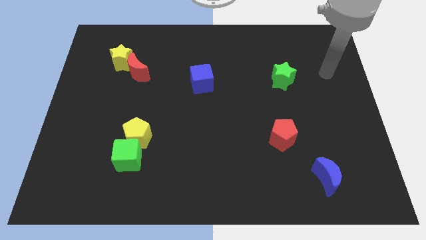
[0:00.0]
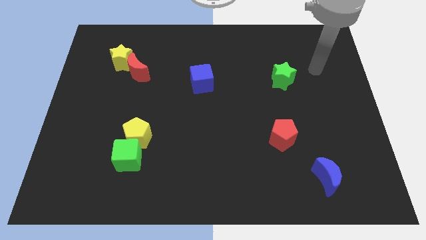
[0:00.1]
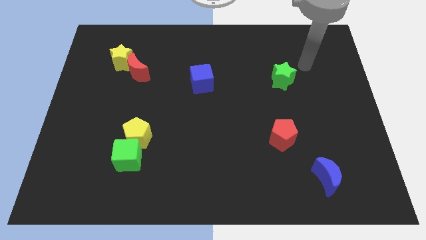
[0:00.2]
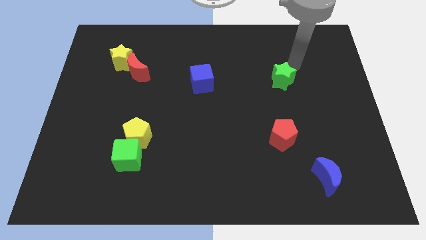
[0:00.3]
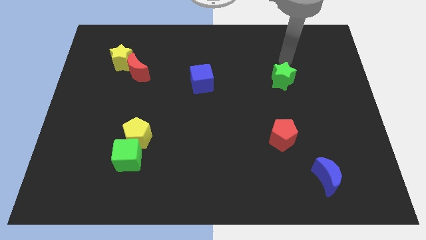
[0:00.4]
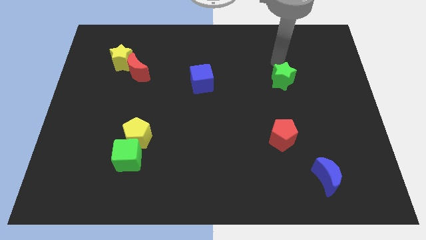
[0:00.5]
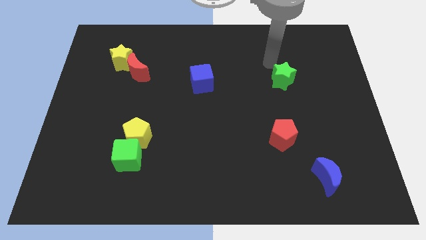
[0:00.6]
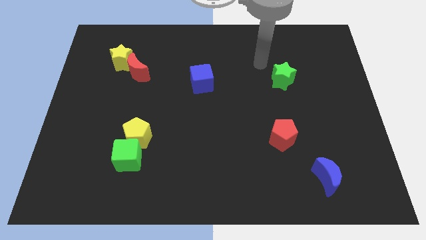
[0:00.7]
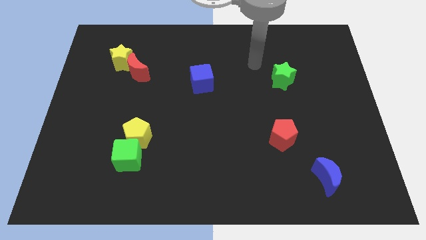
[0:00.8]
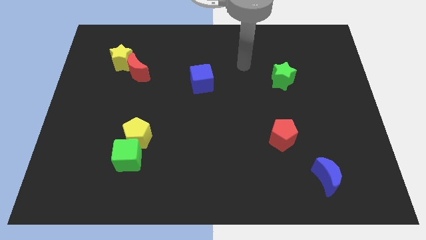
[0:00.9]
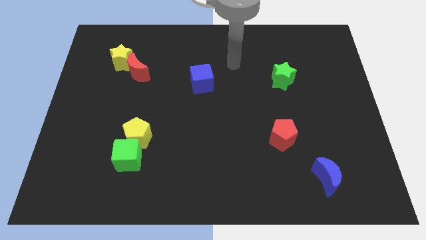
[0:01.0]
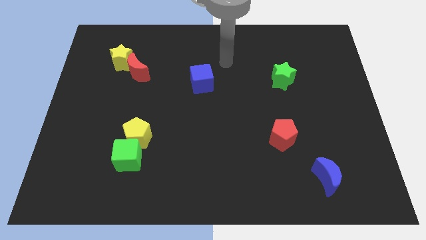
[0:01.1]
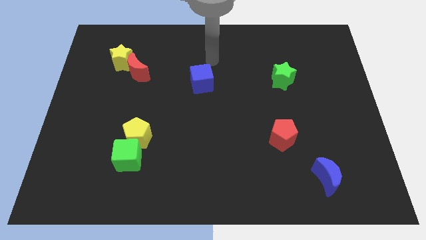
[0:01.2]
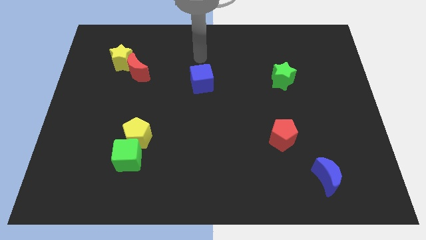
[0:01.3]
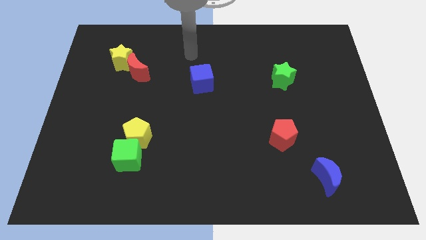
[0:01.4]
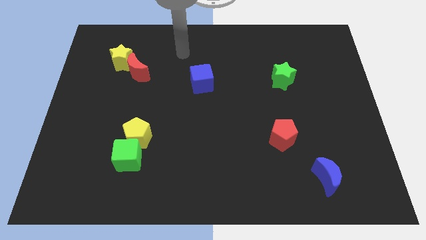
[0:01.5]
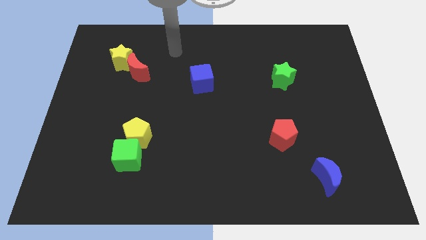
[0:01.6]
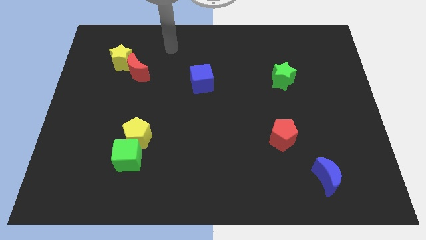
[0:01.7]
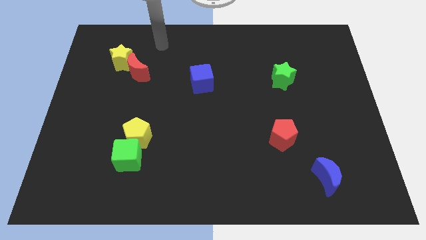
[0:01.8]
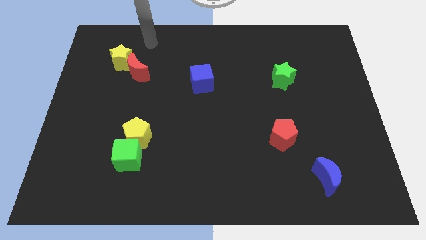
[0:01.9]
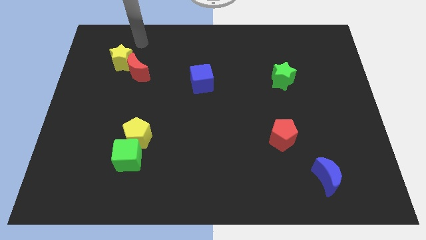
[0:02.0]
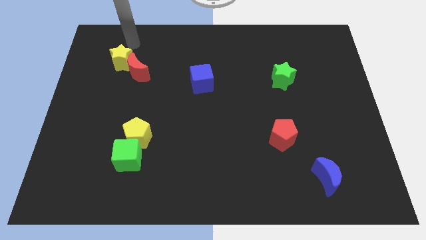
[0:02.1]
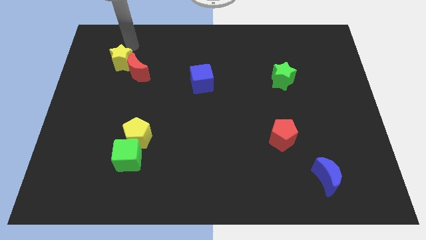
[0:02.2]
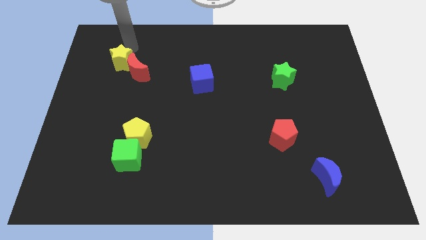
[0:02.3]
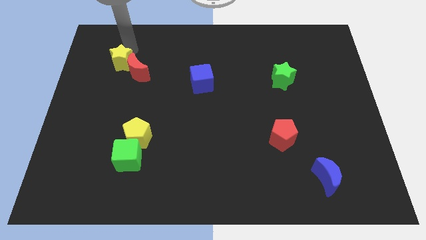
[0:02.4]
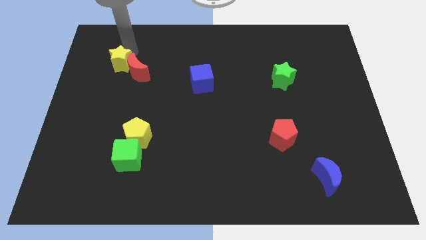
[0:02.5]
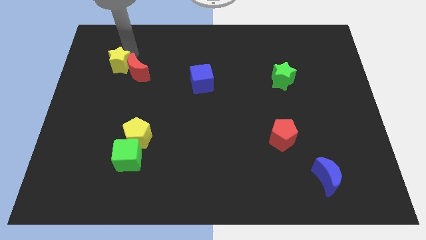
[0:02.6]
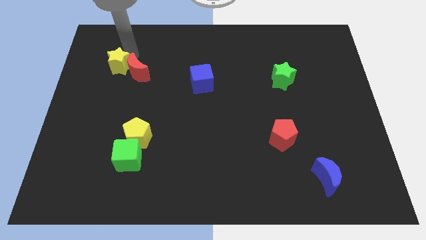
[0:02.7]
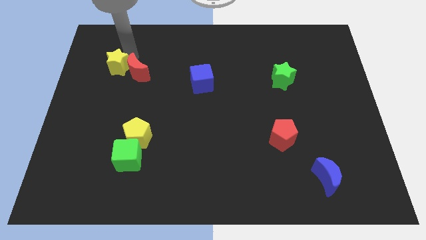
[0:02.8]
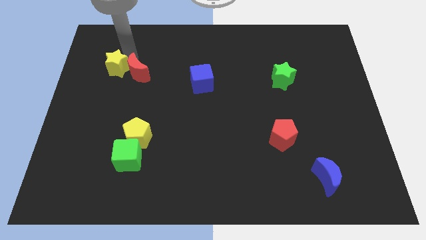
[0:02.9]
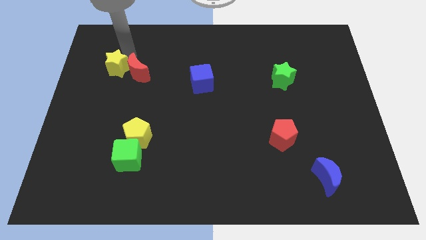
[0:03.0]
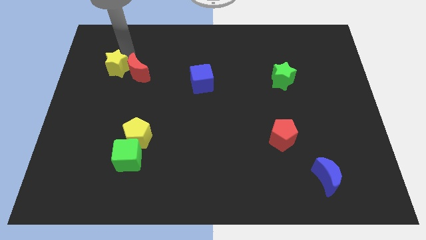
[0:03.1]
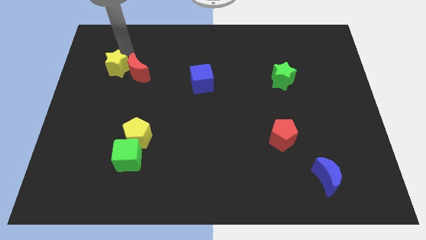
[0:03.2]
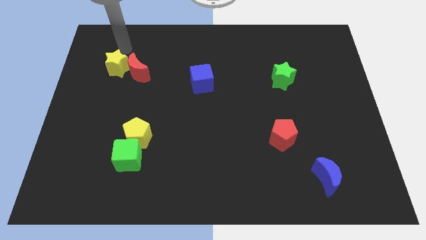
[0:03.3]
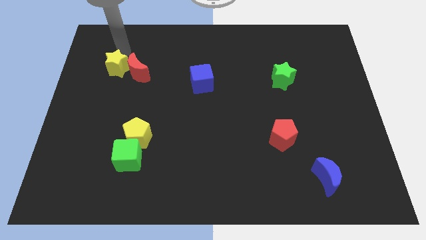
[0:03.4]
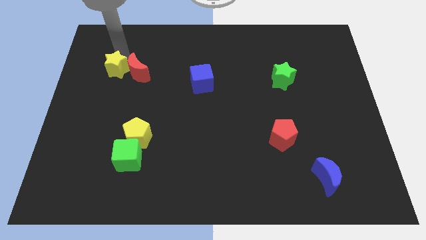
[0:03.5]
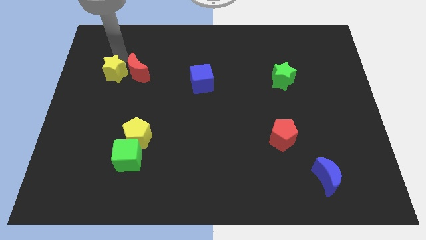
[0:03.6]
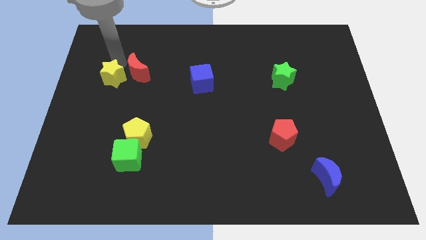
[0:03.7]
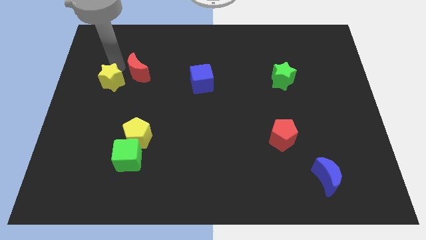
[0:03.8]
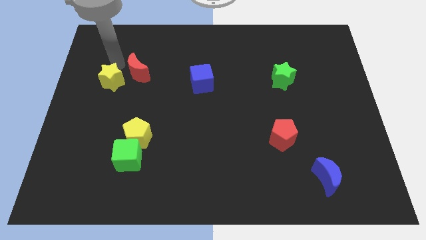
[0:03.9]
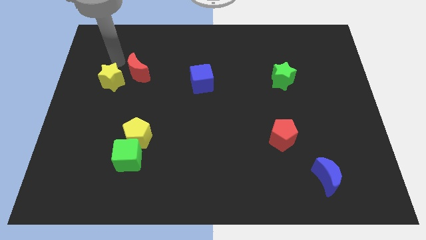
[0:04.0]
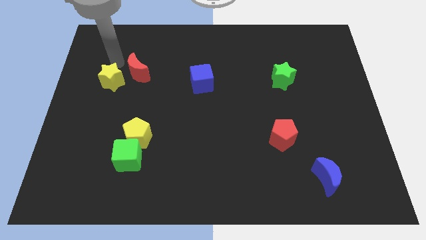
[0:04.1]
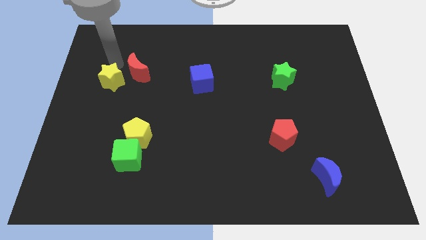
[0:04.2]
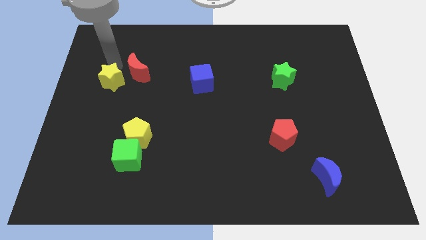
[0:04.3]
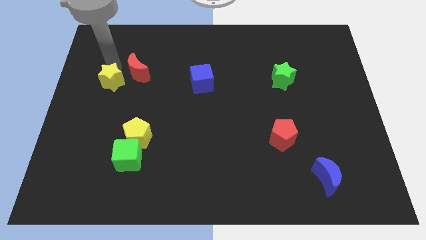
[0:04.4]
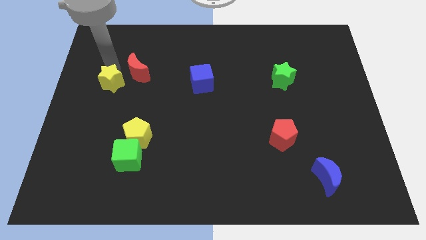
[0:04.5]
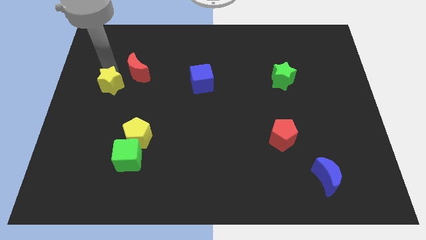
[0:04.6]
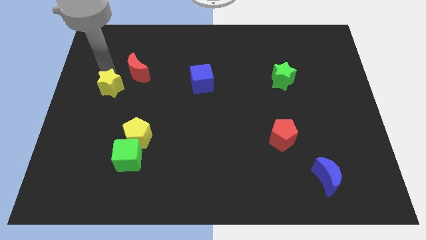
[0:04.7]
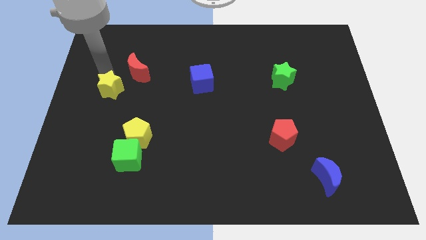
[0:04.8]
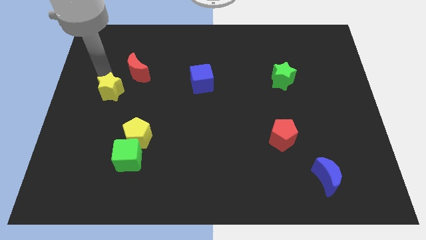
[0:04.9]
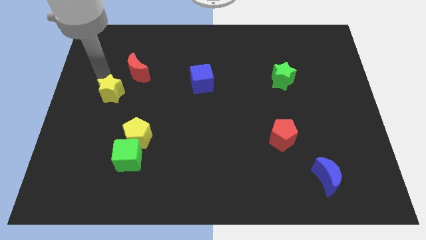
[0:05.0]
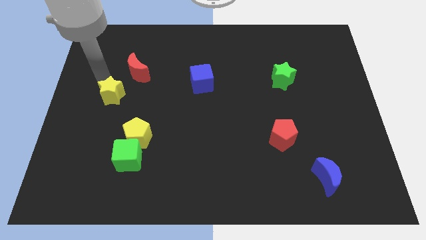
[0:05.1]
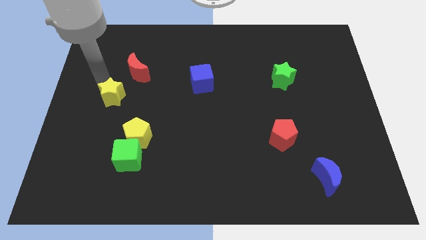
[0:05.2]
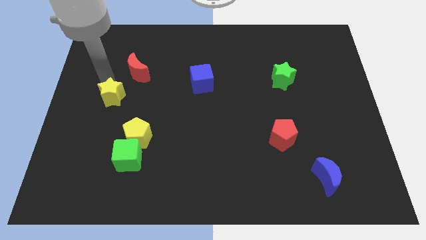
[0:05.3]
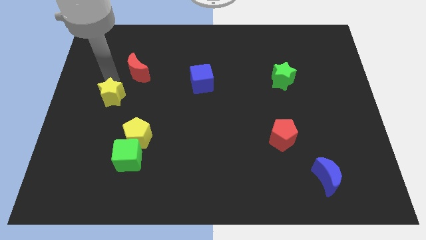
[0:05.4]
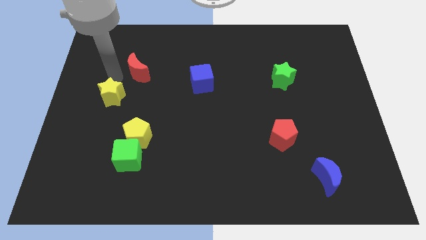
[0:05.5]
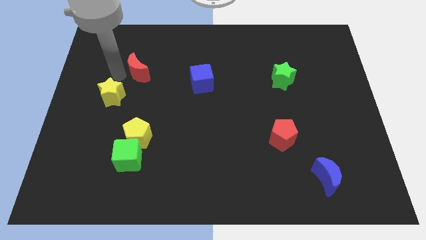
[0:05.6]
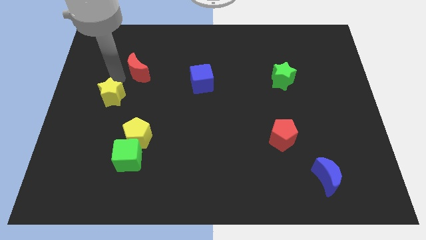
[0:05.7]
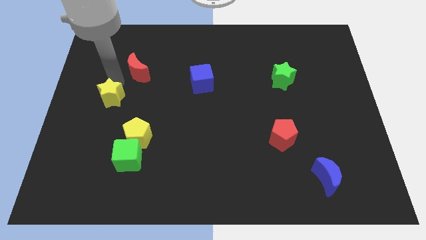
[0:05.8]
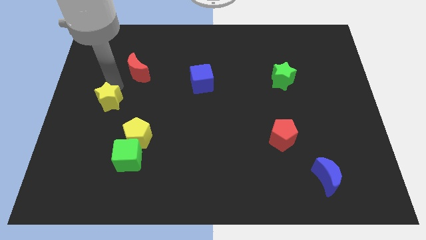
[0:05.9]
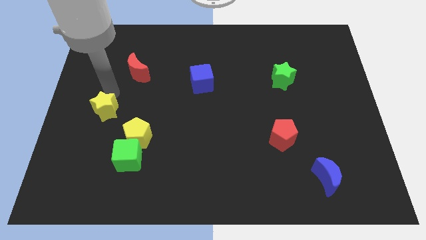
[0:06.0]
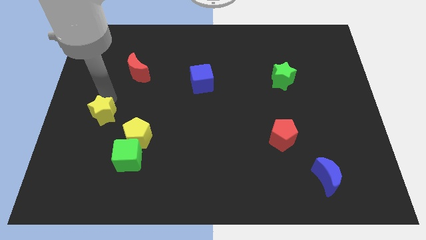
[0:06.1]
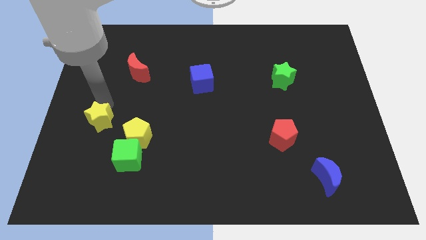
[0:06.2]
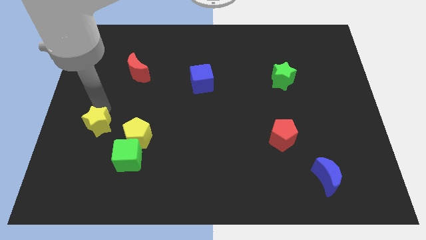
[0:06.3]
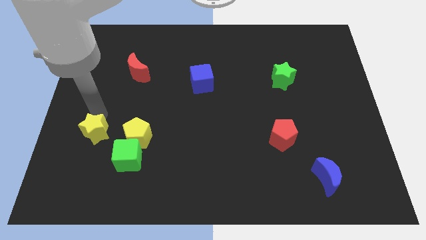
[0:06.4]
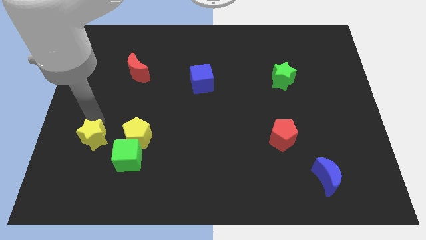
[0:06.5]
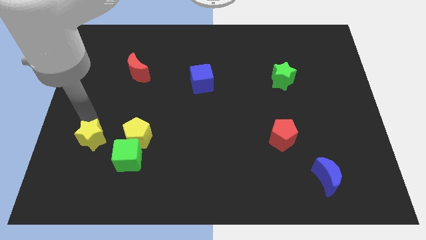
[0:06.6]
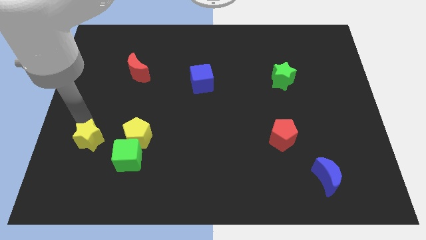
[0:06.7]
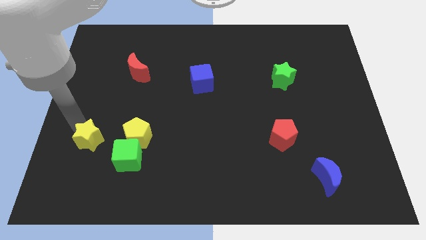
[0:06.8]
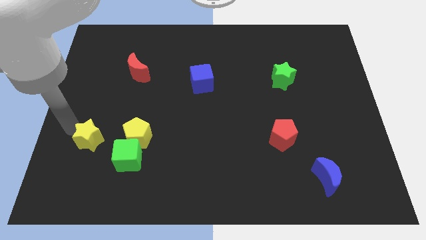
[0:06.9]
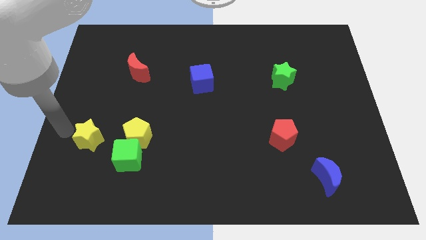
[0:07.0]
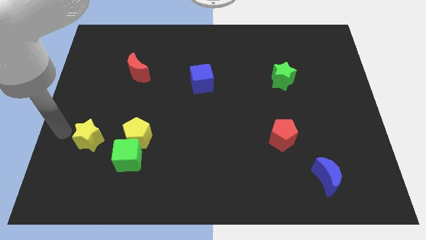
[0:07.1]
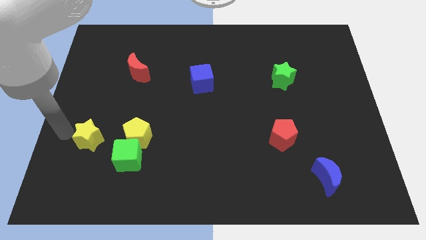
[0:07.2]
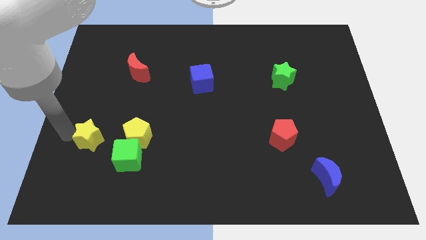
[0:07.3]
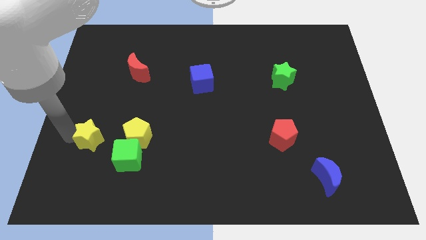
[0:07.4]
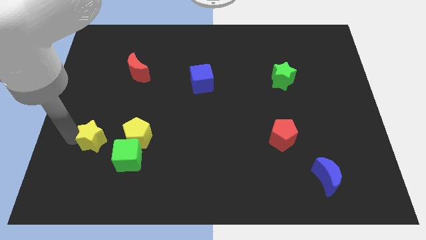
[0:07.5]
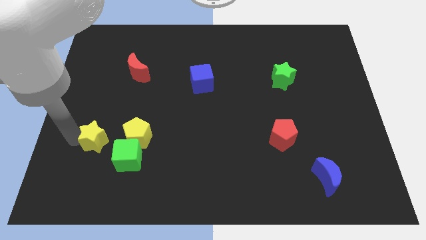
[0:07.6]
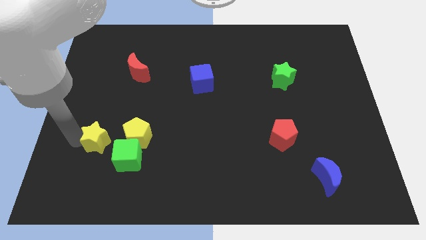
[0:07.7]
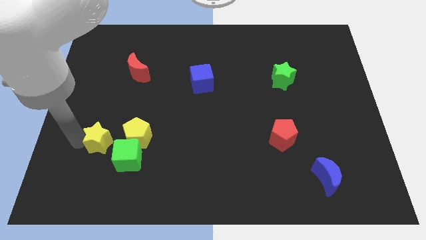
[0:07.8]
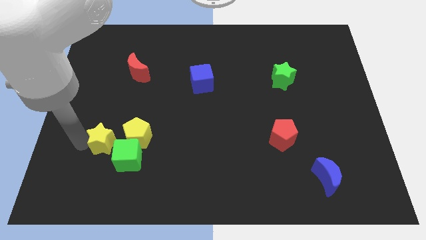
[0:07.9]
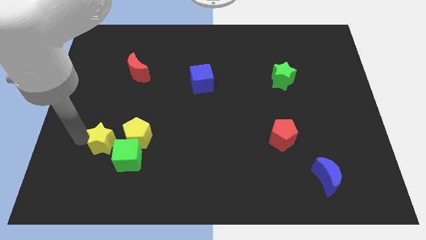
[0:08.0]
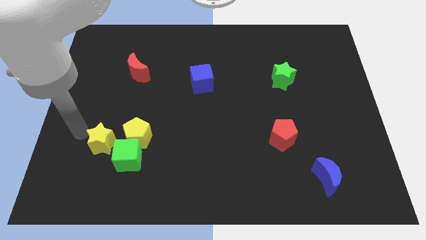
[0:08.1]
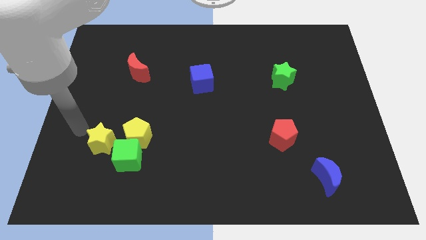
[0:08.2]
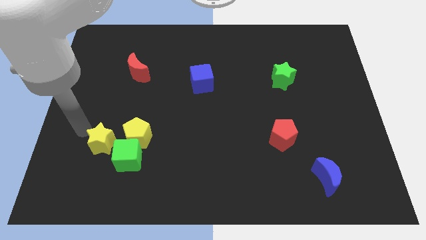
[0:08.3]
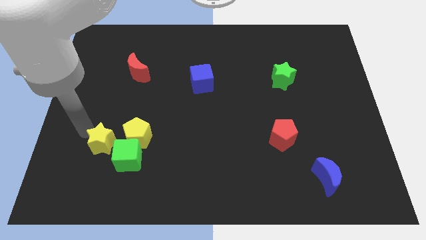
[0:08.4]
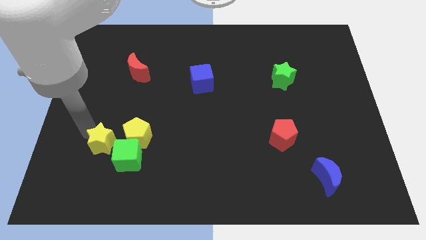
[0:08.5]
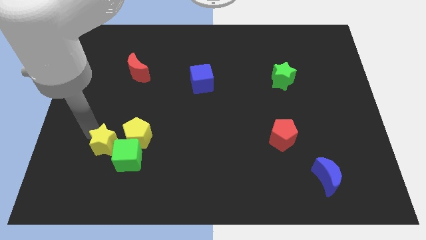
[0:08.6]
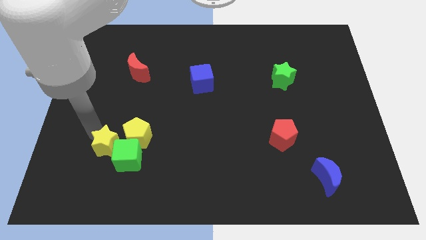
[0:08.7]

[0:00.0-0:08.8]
slide the yellow star to the green cube
